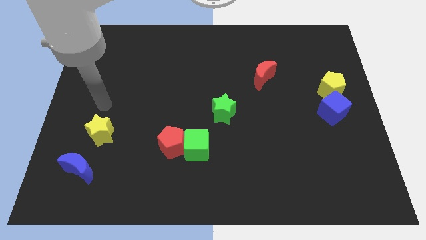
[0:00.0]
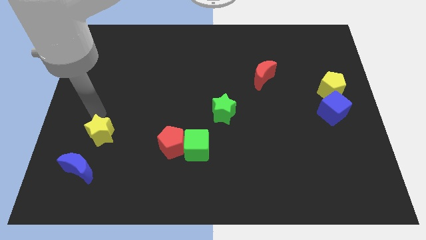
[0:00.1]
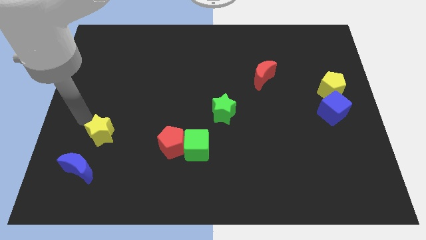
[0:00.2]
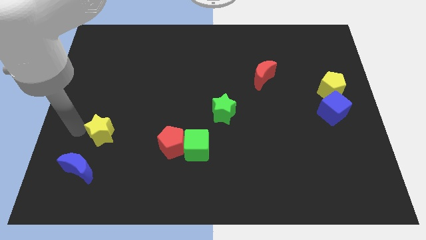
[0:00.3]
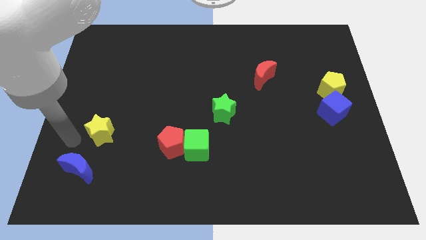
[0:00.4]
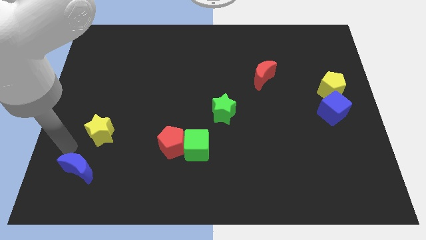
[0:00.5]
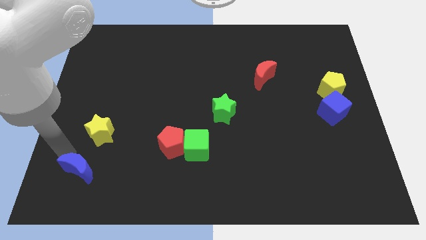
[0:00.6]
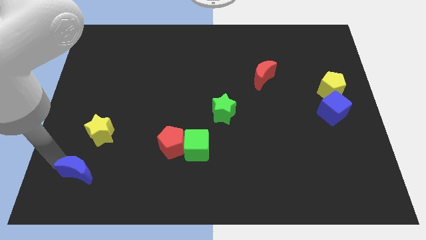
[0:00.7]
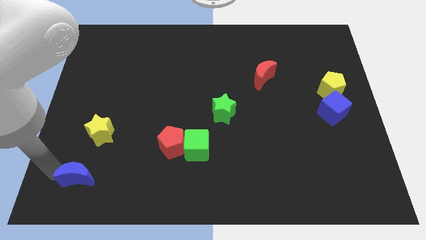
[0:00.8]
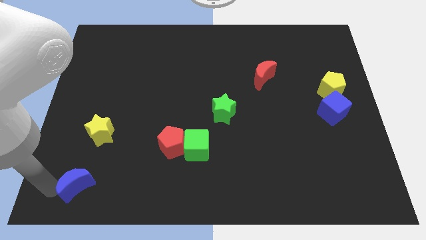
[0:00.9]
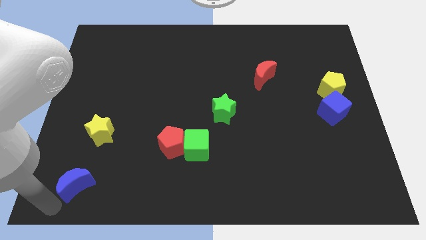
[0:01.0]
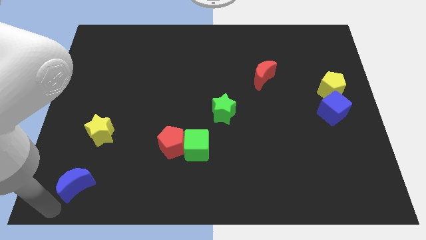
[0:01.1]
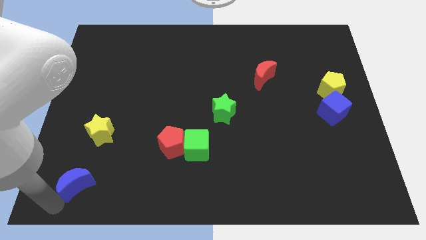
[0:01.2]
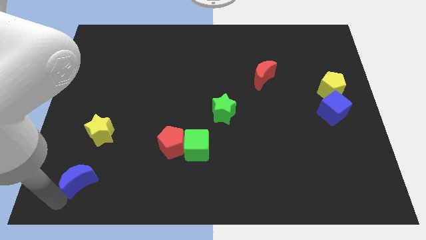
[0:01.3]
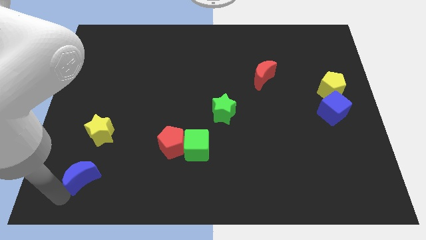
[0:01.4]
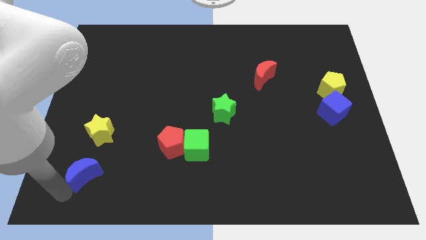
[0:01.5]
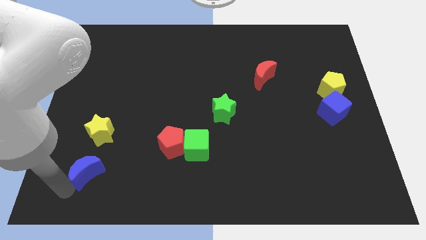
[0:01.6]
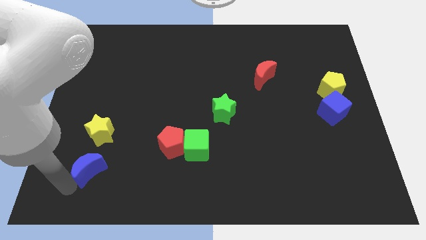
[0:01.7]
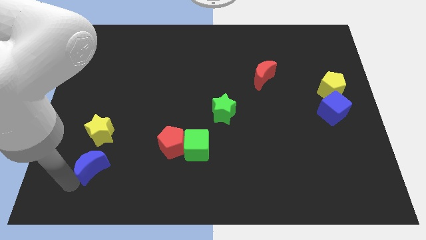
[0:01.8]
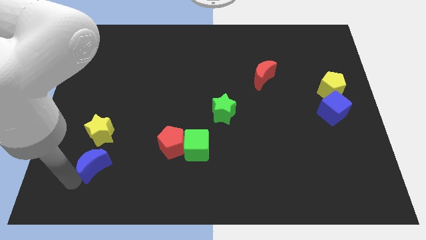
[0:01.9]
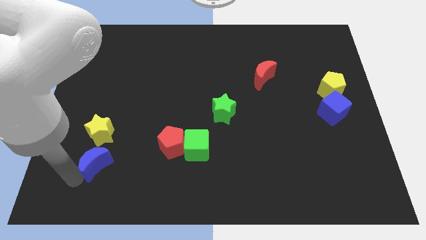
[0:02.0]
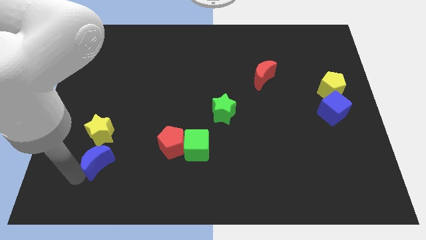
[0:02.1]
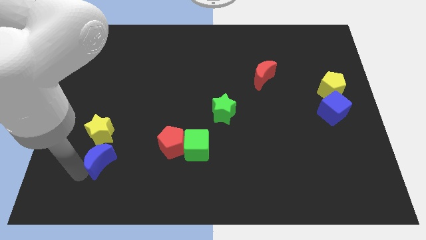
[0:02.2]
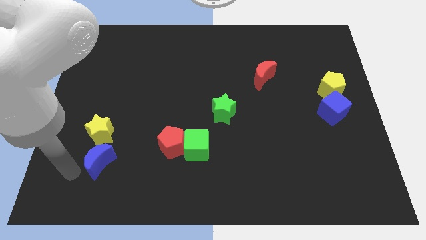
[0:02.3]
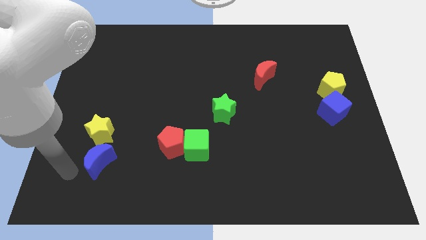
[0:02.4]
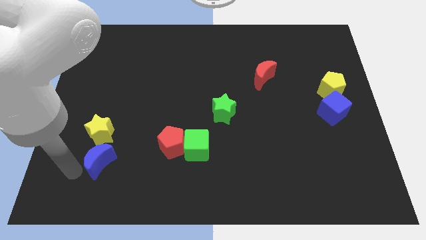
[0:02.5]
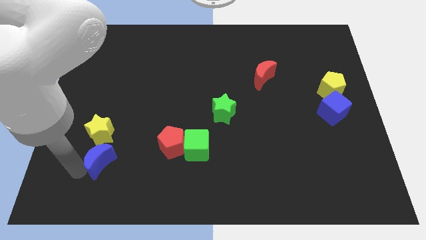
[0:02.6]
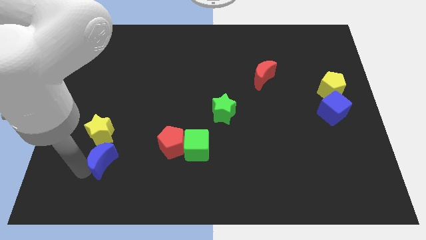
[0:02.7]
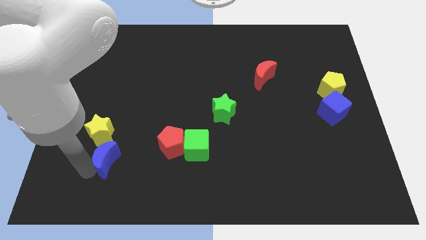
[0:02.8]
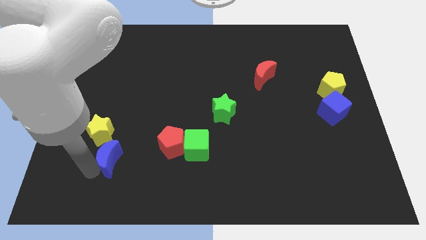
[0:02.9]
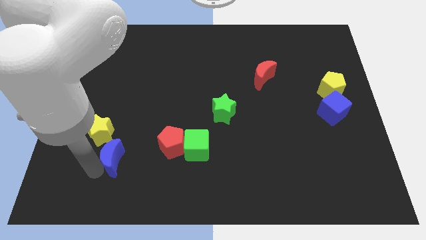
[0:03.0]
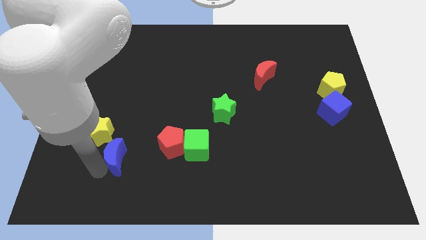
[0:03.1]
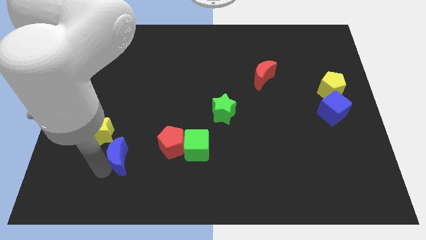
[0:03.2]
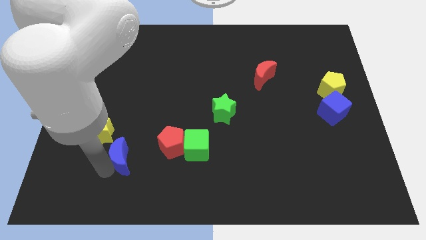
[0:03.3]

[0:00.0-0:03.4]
move the blue moon slightly upwards and to the right

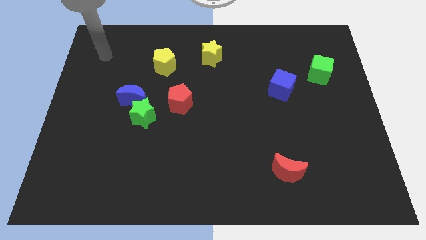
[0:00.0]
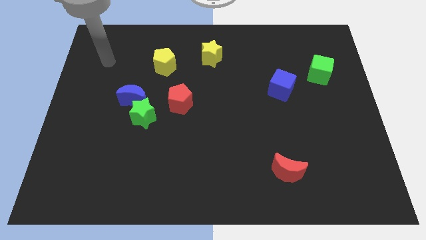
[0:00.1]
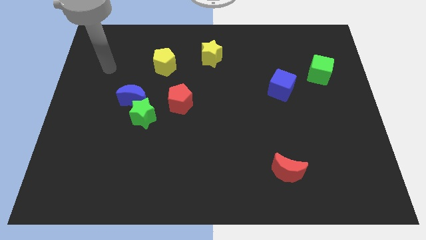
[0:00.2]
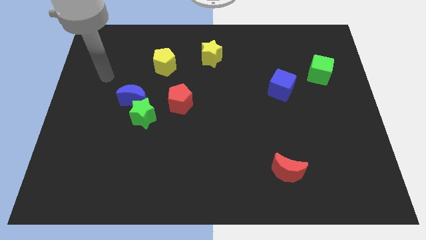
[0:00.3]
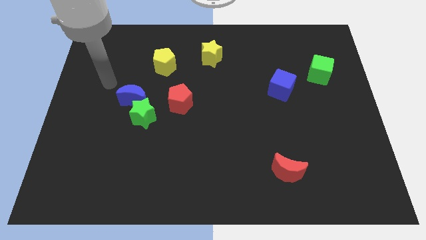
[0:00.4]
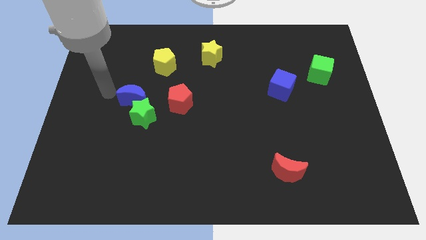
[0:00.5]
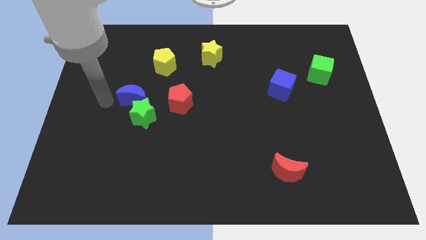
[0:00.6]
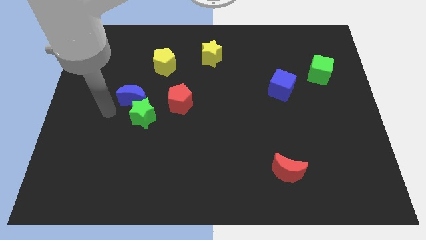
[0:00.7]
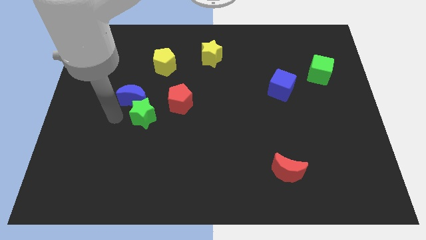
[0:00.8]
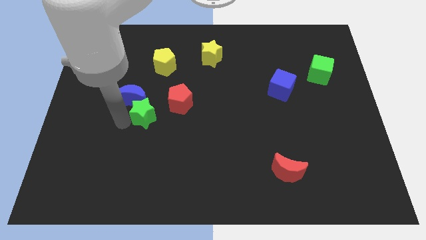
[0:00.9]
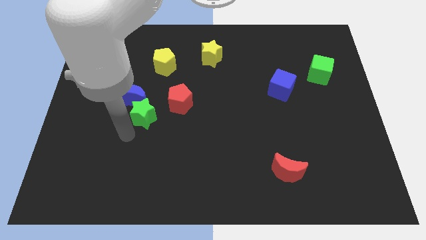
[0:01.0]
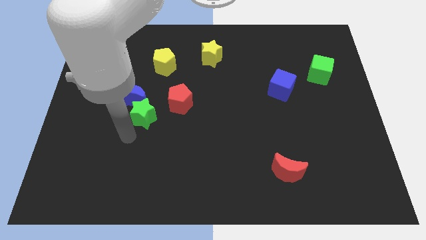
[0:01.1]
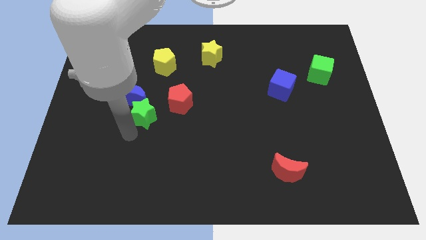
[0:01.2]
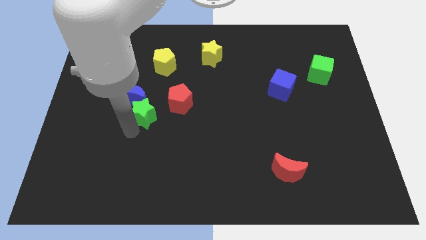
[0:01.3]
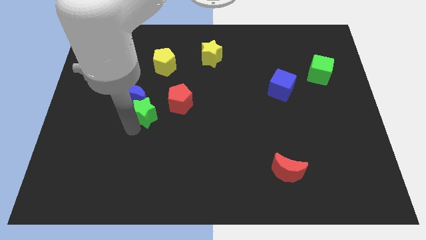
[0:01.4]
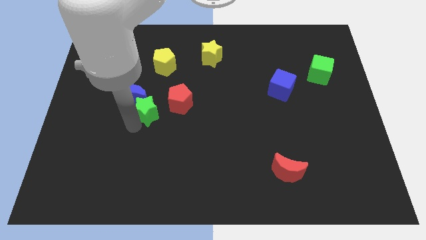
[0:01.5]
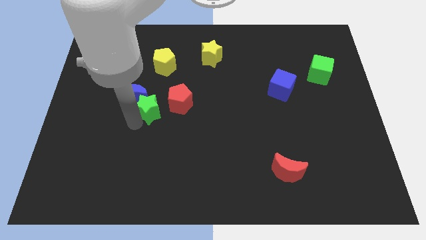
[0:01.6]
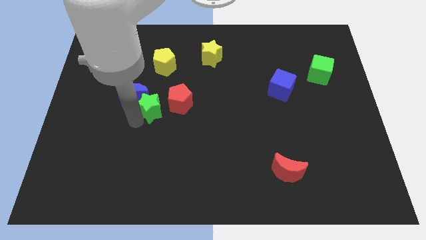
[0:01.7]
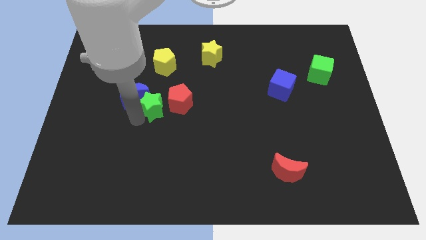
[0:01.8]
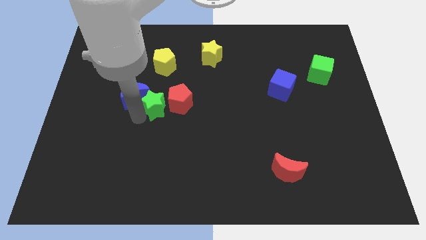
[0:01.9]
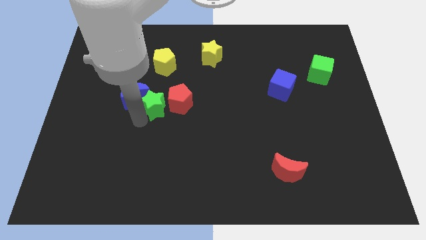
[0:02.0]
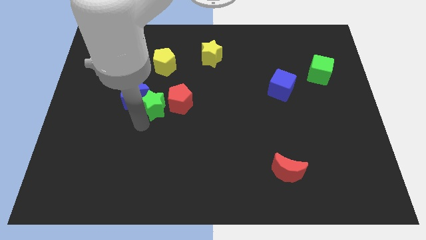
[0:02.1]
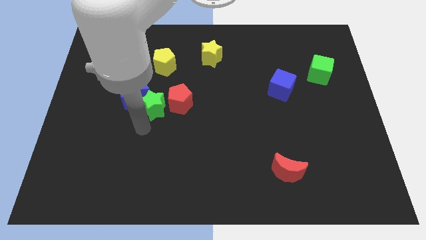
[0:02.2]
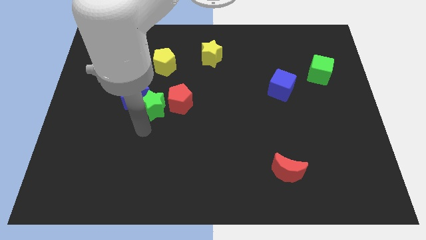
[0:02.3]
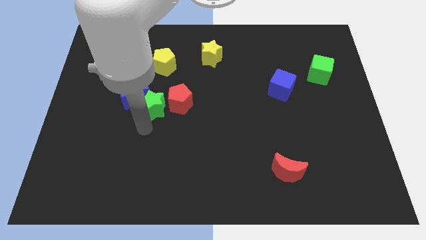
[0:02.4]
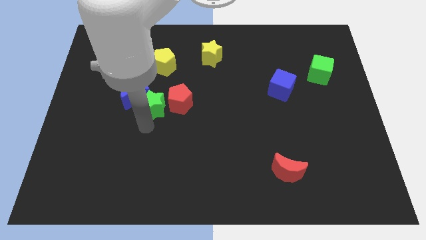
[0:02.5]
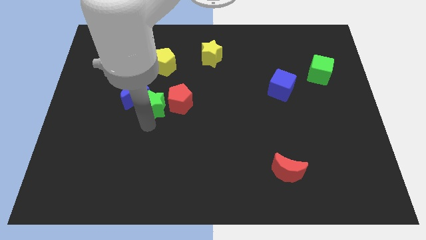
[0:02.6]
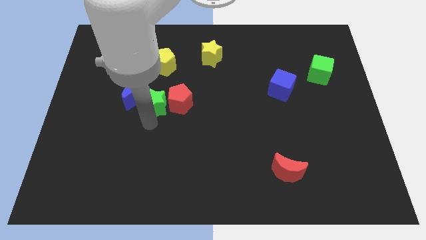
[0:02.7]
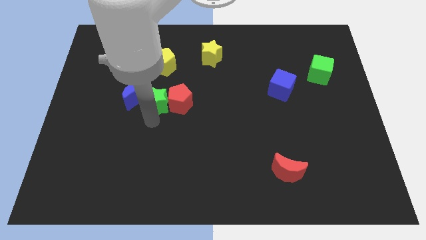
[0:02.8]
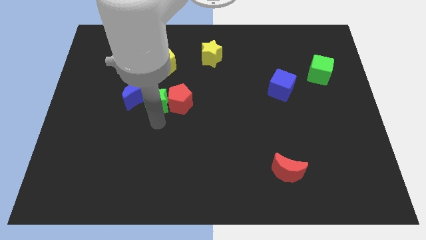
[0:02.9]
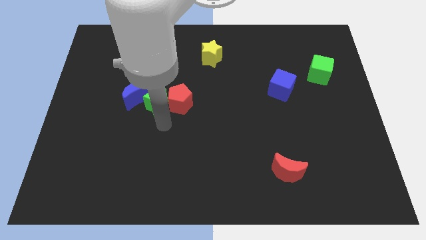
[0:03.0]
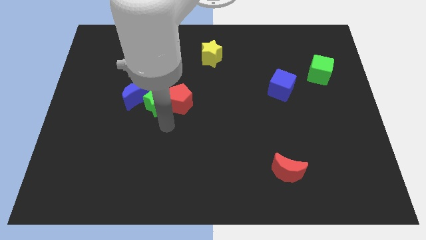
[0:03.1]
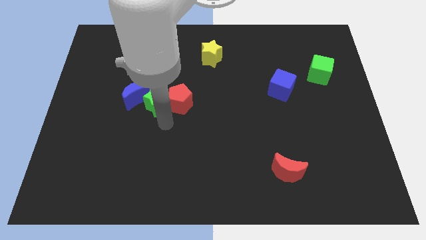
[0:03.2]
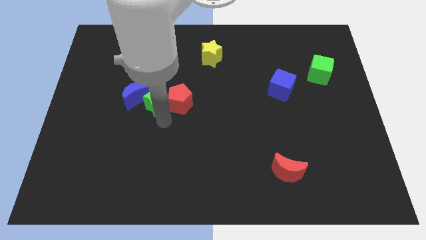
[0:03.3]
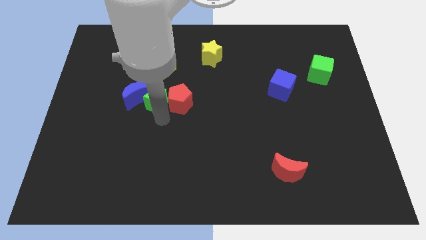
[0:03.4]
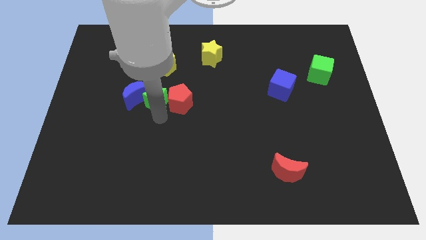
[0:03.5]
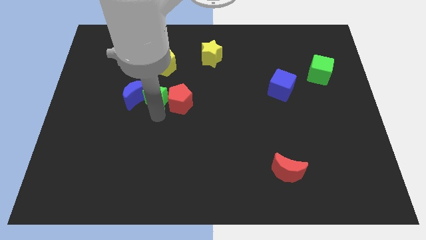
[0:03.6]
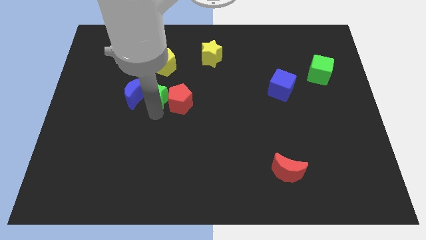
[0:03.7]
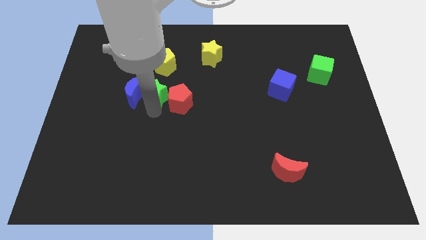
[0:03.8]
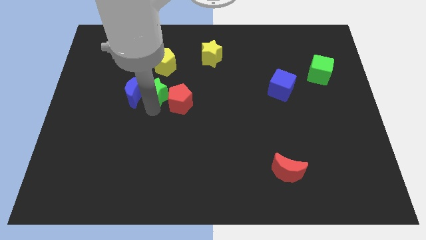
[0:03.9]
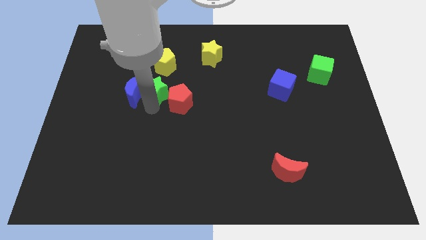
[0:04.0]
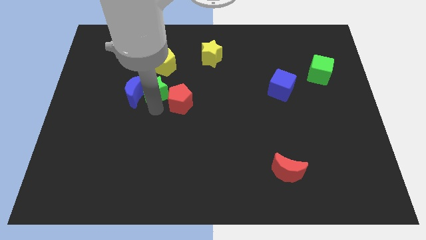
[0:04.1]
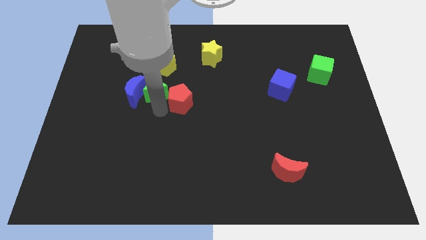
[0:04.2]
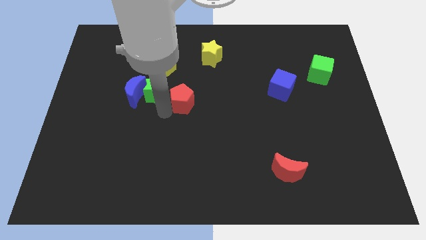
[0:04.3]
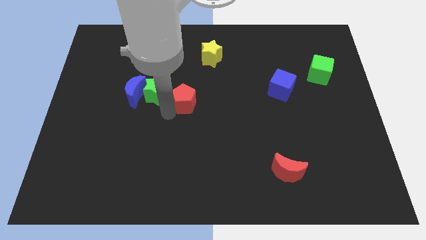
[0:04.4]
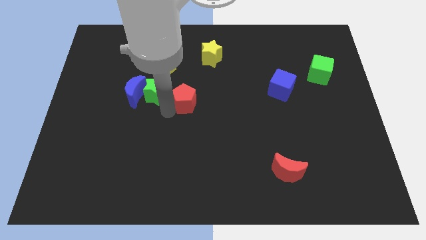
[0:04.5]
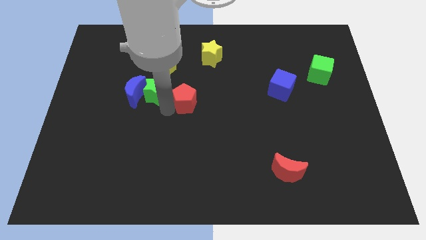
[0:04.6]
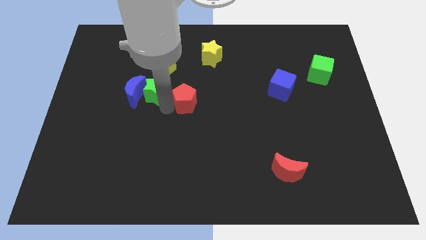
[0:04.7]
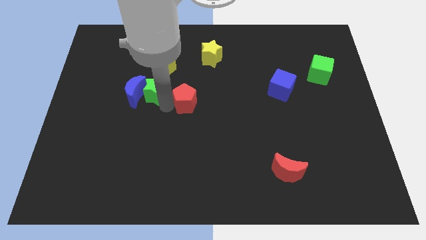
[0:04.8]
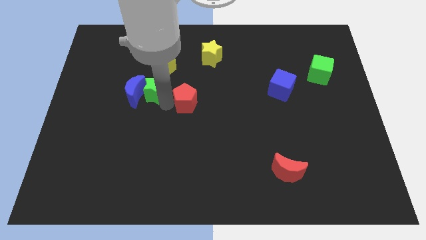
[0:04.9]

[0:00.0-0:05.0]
push the green star up a bit
